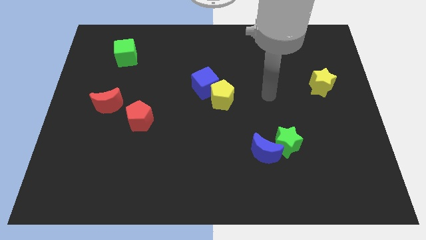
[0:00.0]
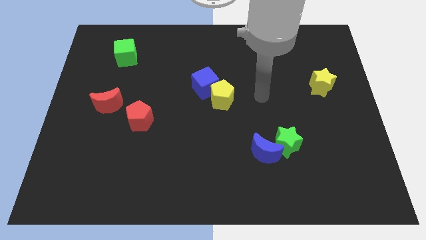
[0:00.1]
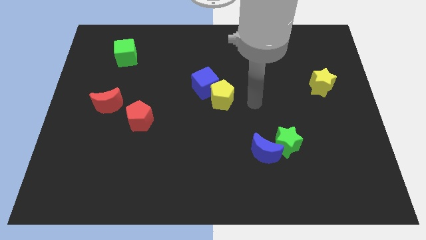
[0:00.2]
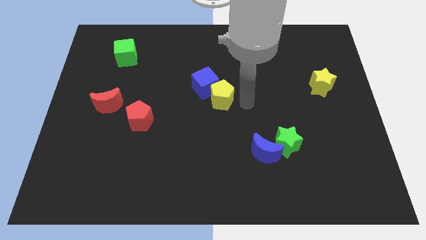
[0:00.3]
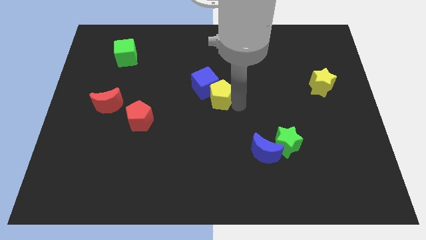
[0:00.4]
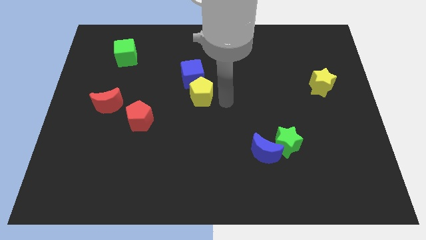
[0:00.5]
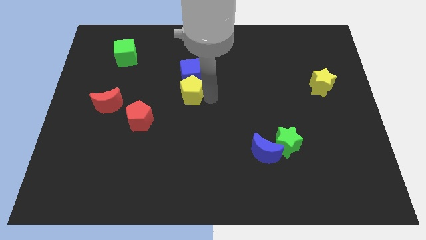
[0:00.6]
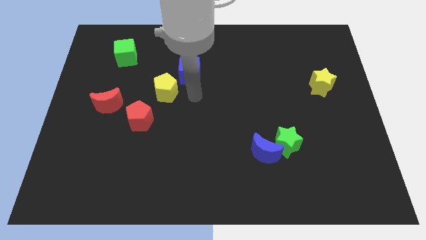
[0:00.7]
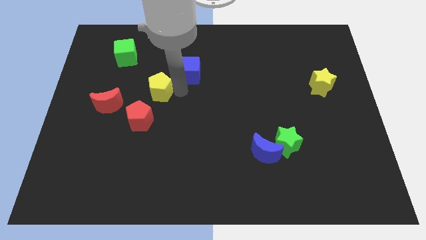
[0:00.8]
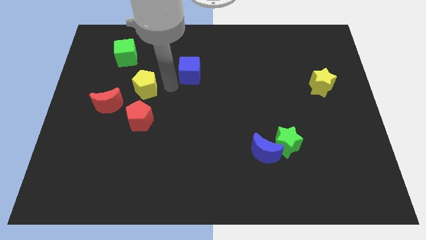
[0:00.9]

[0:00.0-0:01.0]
separate the blue cube from the yellow pentagon

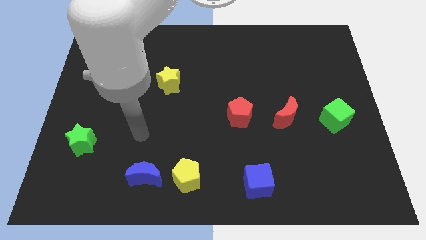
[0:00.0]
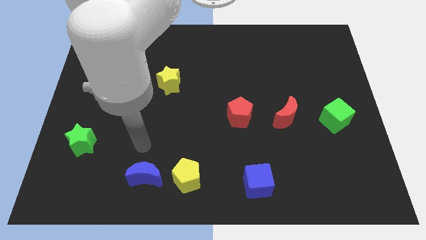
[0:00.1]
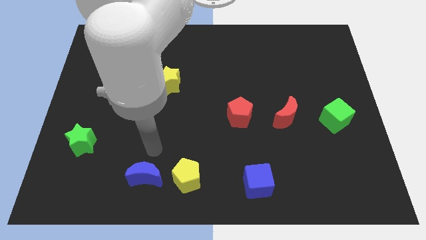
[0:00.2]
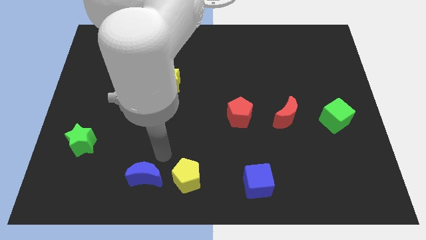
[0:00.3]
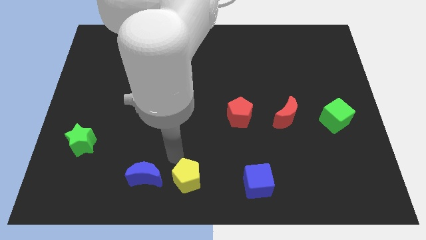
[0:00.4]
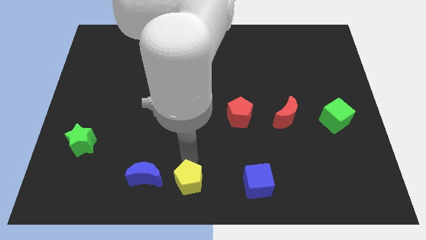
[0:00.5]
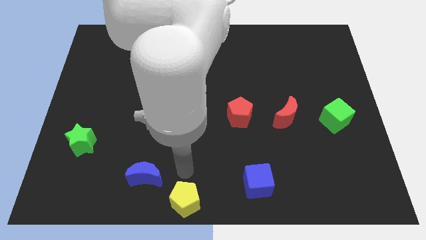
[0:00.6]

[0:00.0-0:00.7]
separate the blue moon from the yellow pentagon

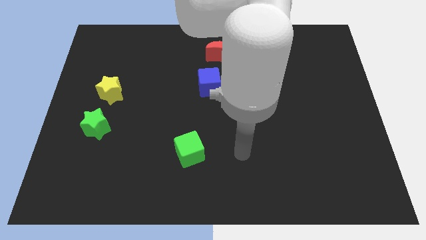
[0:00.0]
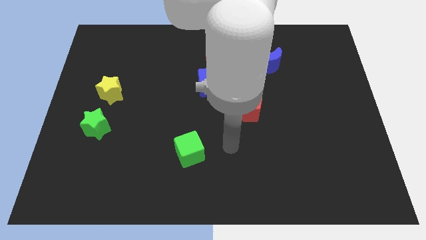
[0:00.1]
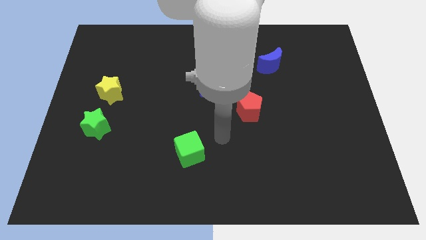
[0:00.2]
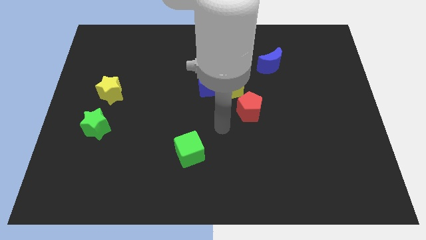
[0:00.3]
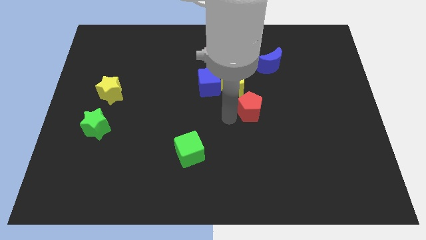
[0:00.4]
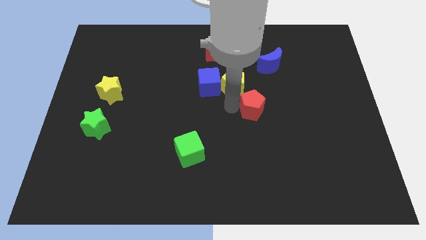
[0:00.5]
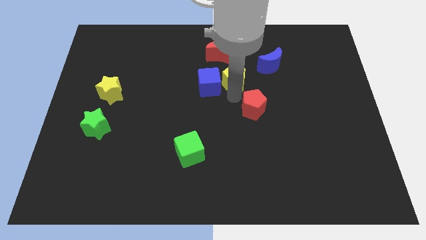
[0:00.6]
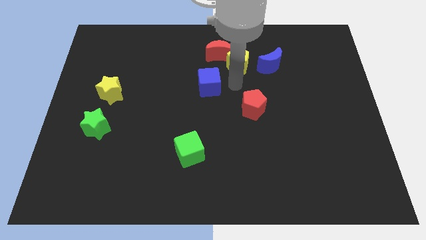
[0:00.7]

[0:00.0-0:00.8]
move the blue cube away from the yellow pentagon

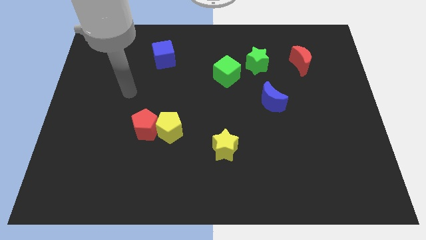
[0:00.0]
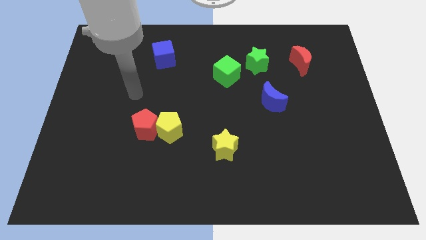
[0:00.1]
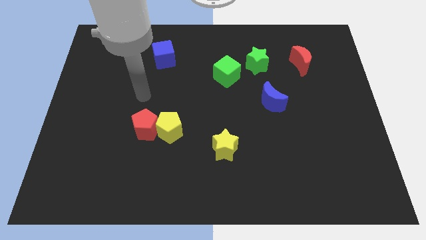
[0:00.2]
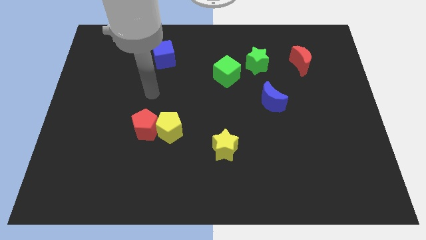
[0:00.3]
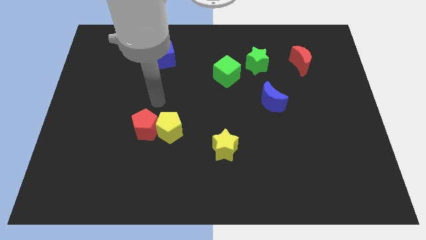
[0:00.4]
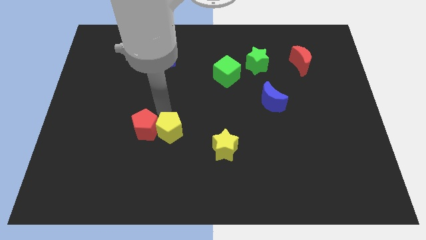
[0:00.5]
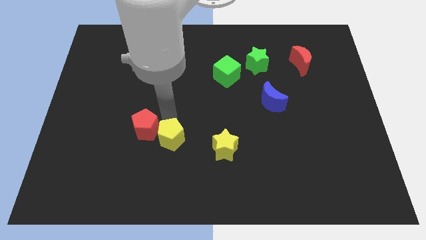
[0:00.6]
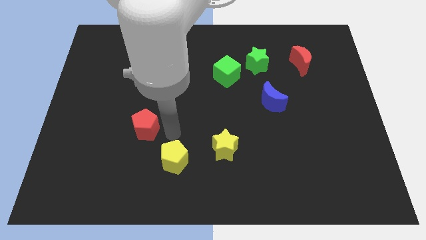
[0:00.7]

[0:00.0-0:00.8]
move the red pentagon away from the yellow pentagon

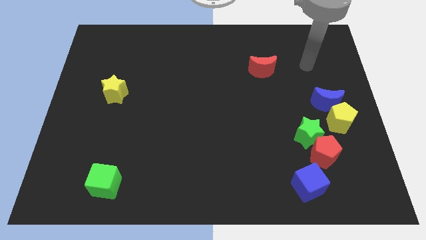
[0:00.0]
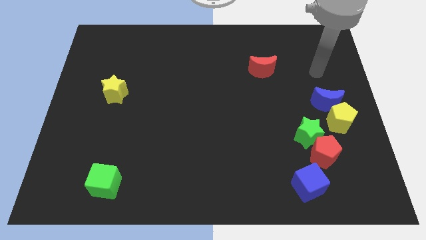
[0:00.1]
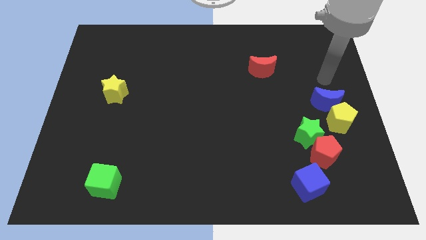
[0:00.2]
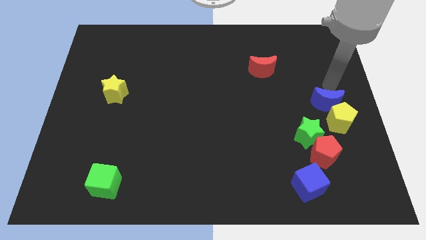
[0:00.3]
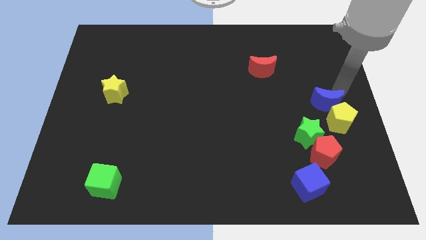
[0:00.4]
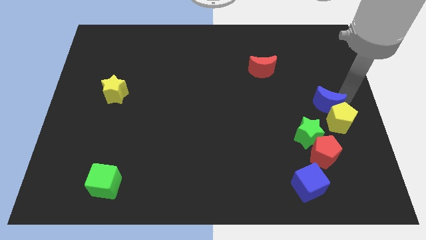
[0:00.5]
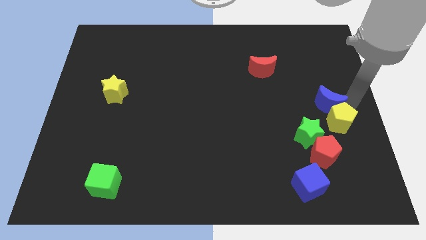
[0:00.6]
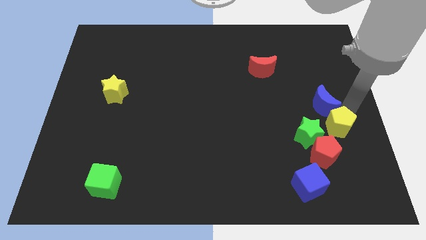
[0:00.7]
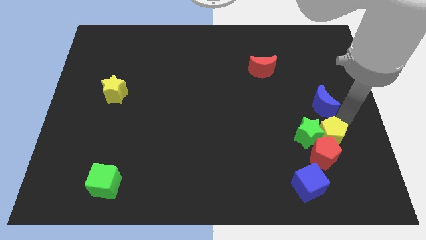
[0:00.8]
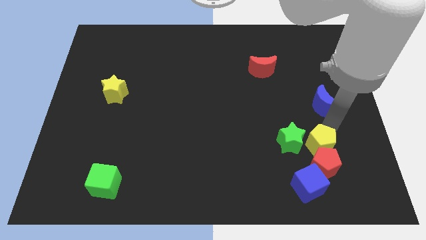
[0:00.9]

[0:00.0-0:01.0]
move the blue moon away from the yellow pentagon

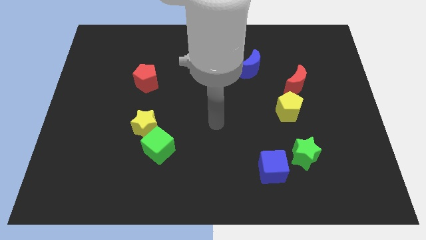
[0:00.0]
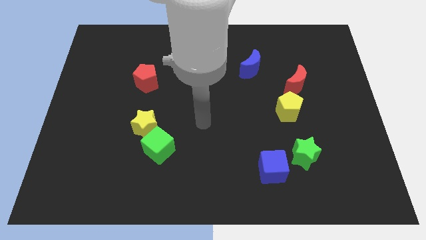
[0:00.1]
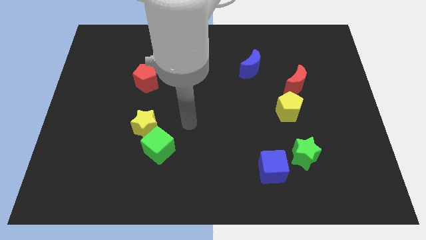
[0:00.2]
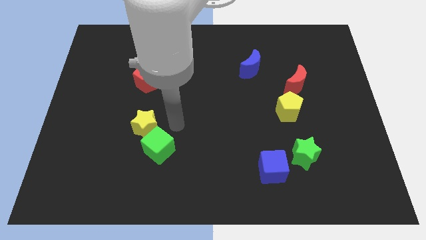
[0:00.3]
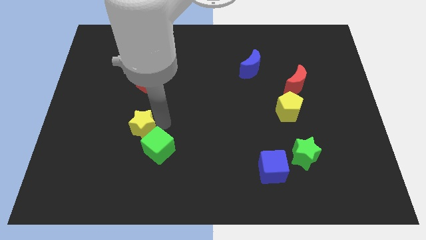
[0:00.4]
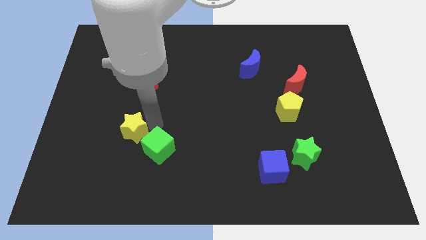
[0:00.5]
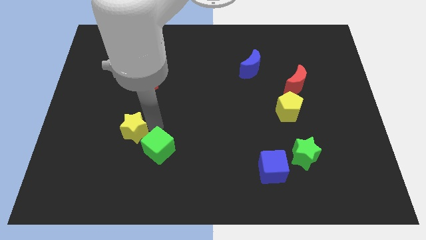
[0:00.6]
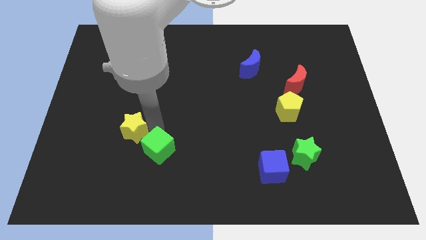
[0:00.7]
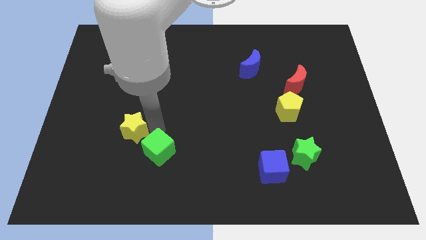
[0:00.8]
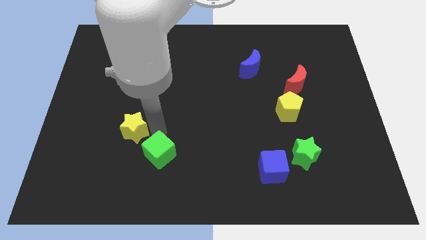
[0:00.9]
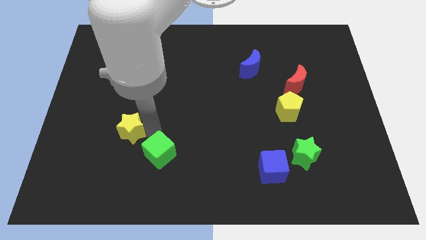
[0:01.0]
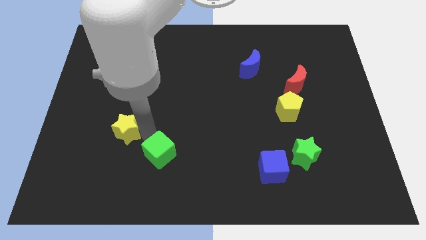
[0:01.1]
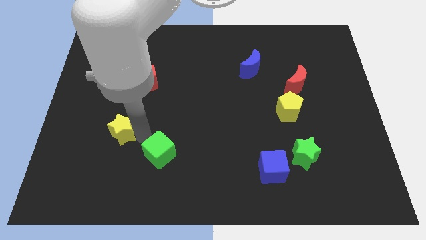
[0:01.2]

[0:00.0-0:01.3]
pull the green cube apart from the yellow star

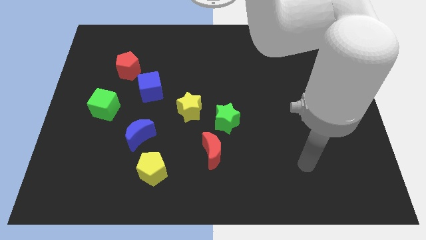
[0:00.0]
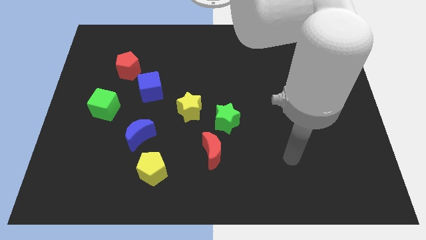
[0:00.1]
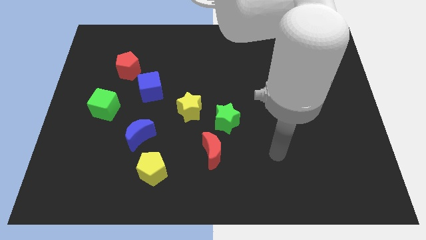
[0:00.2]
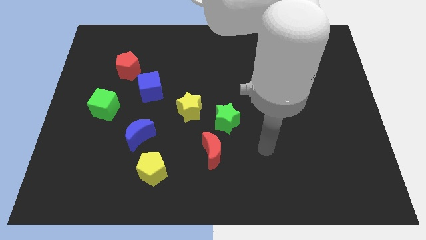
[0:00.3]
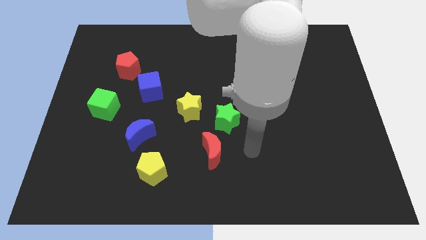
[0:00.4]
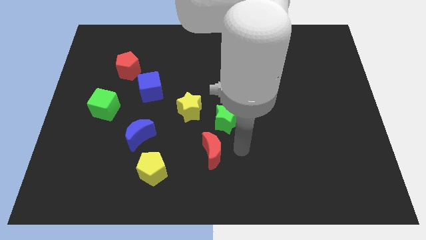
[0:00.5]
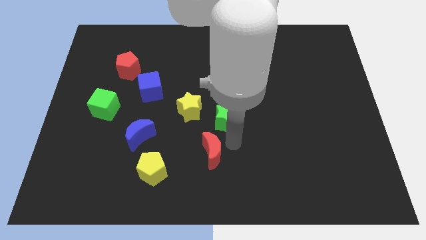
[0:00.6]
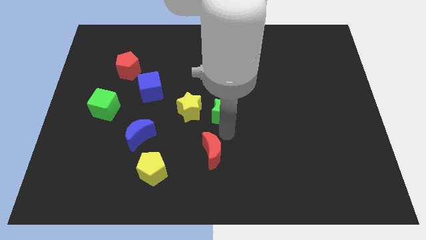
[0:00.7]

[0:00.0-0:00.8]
pull the red moon apart from the green star

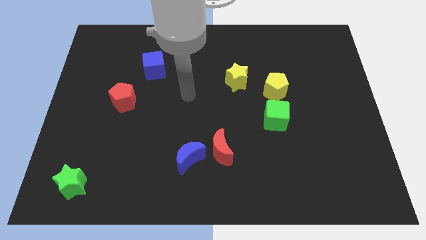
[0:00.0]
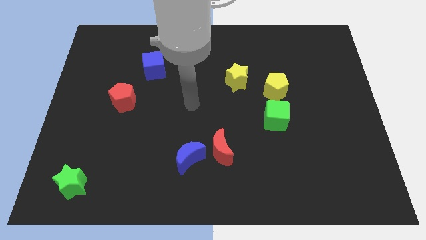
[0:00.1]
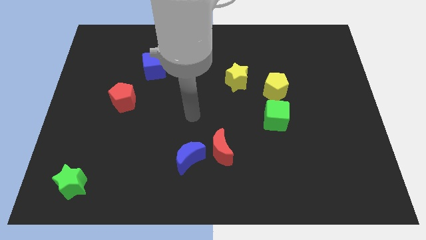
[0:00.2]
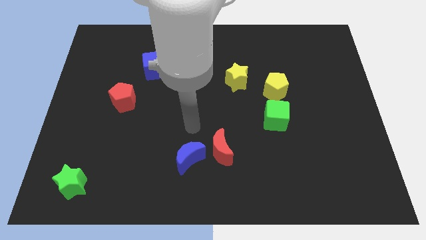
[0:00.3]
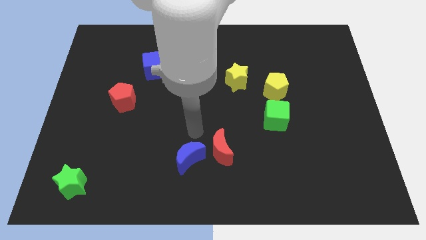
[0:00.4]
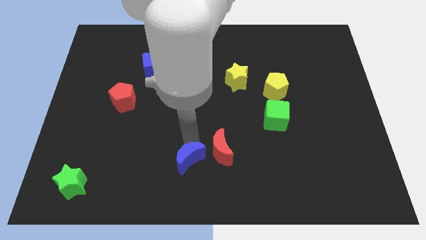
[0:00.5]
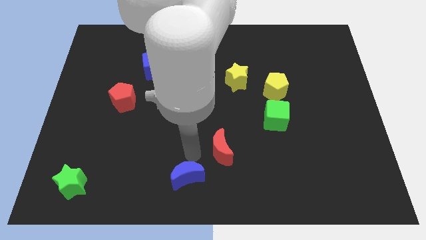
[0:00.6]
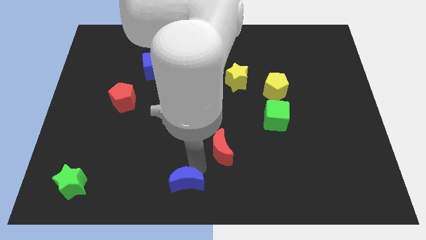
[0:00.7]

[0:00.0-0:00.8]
move the red moon away from the blue moon

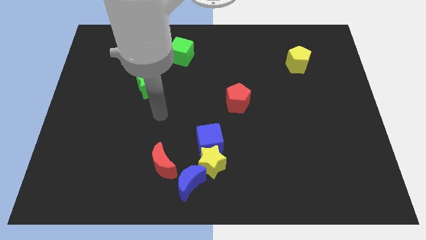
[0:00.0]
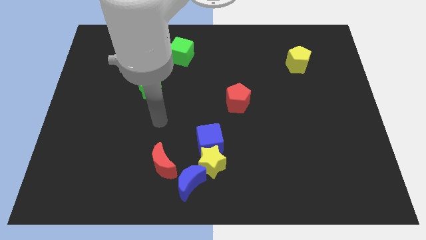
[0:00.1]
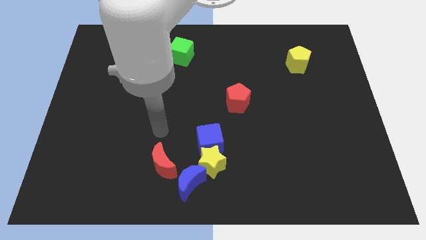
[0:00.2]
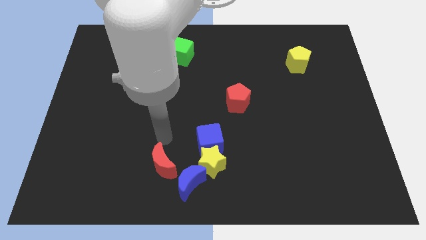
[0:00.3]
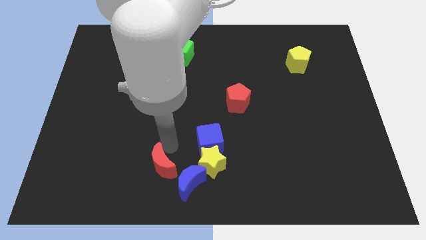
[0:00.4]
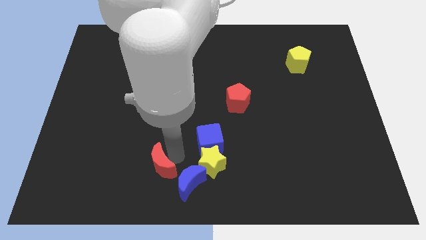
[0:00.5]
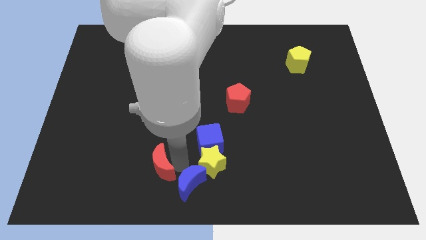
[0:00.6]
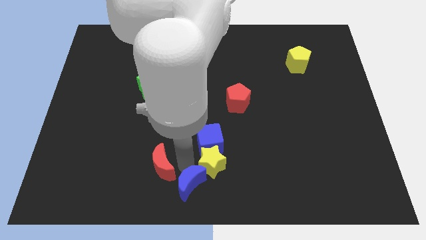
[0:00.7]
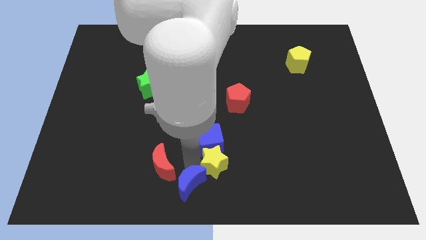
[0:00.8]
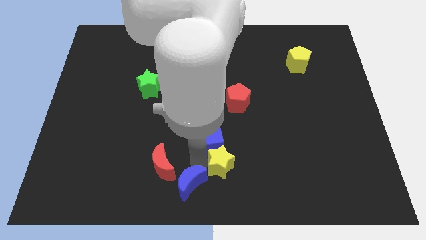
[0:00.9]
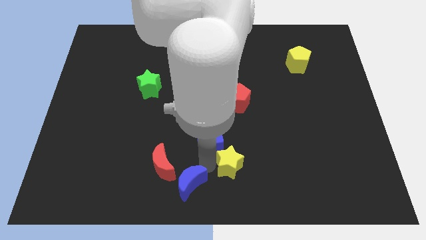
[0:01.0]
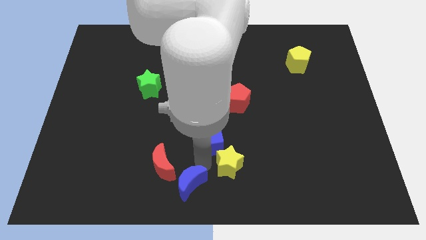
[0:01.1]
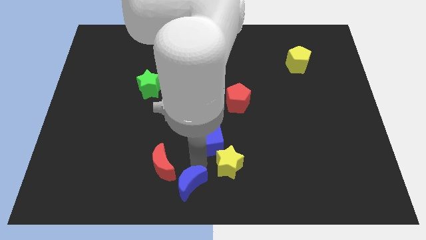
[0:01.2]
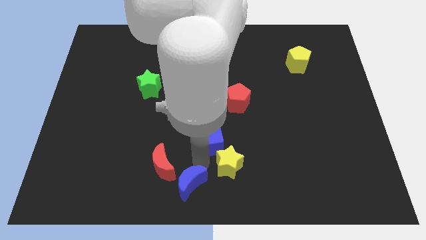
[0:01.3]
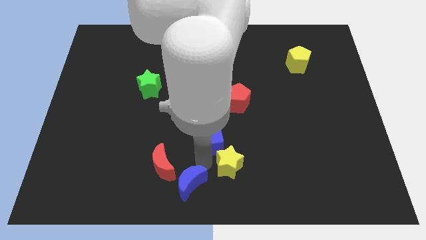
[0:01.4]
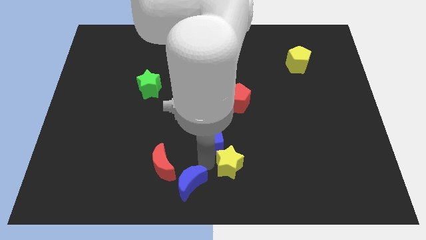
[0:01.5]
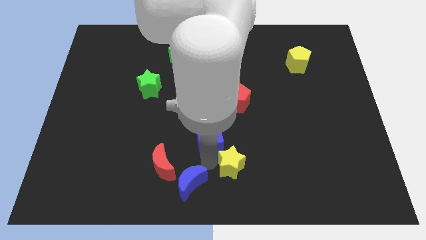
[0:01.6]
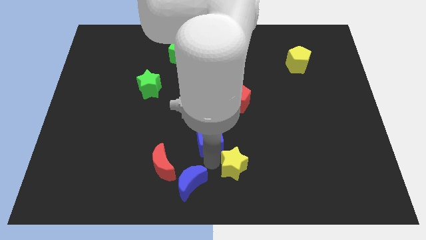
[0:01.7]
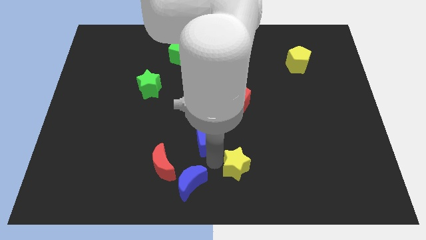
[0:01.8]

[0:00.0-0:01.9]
move the yellow star away from the blue cube, blue moon, and red moon
